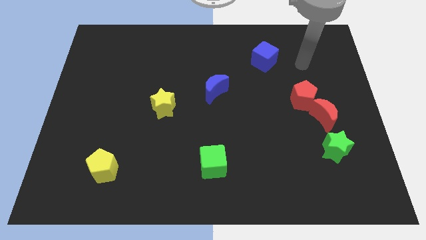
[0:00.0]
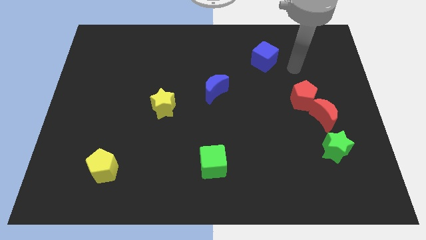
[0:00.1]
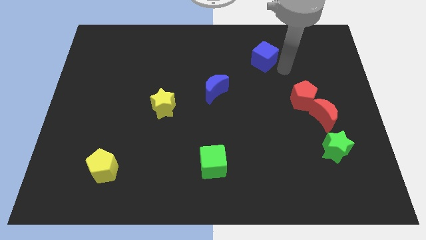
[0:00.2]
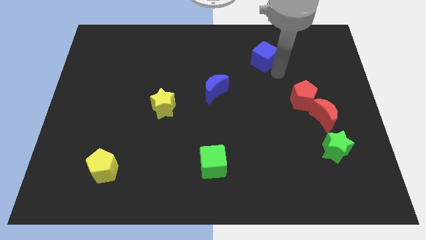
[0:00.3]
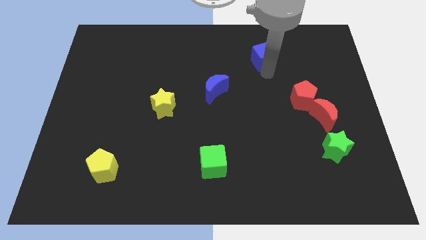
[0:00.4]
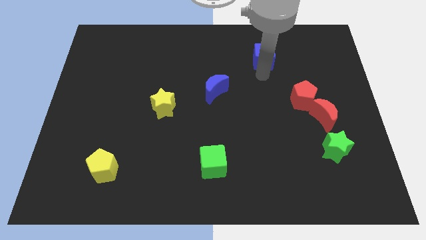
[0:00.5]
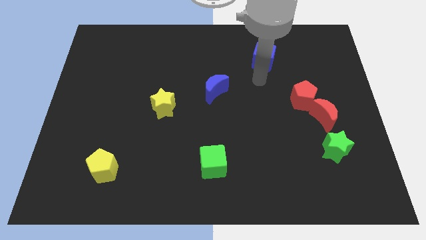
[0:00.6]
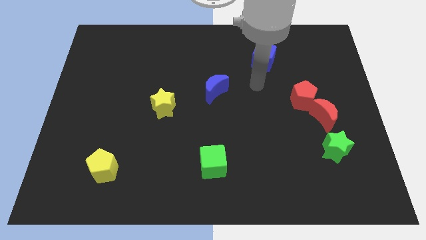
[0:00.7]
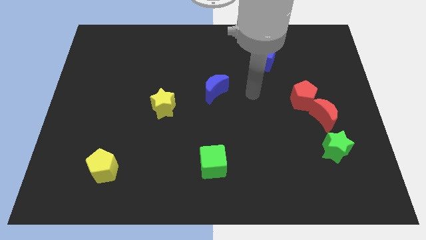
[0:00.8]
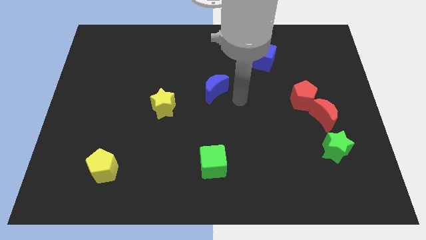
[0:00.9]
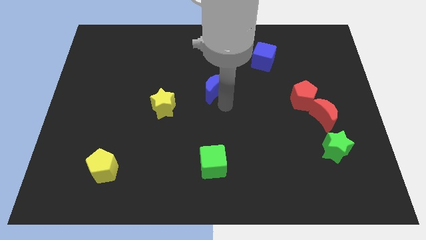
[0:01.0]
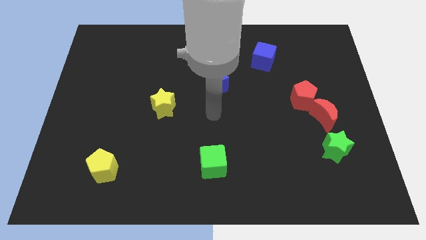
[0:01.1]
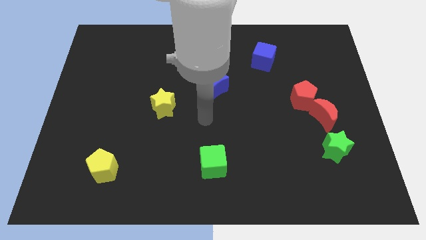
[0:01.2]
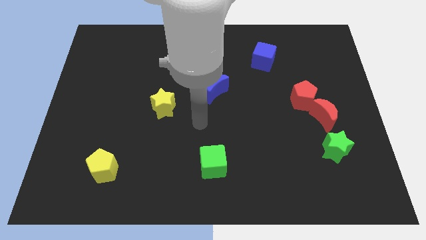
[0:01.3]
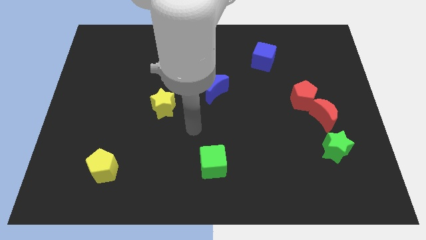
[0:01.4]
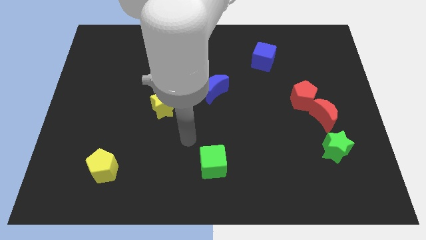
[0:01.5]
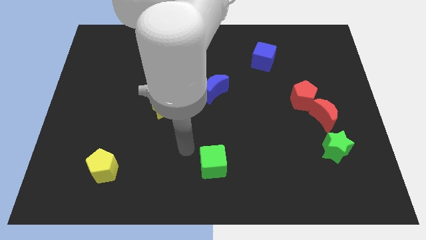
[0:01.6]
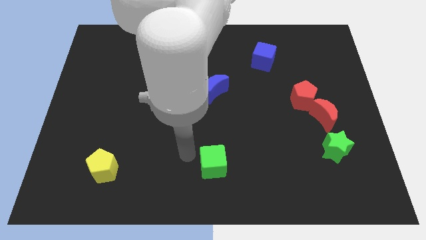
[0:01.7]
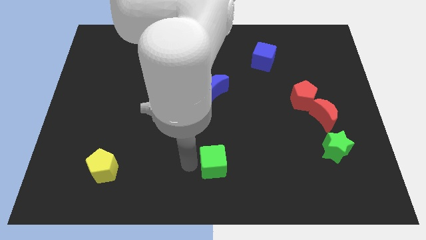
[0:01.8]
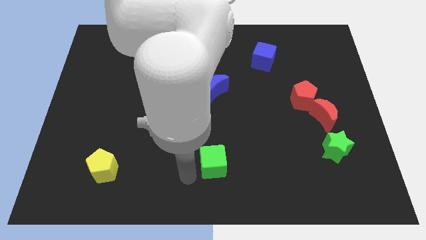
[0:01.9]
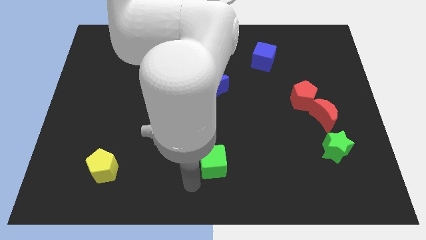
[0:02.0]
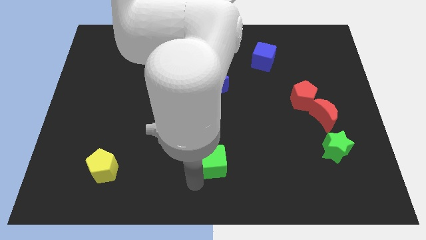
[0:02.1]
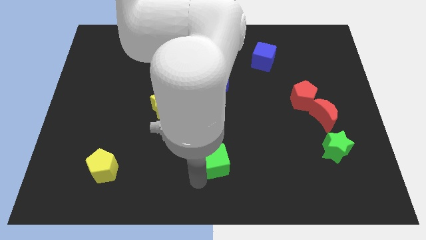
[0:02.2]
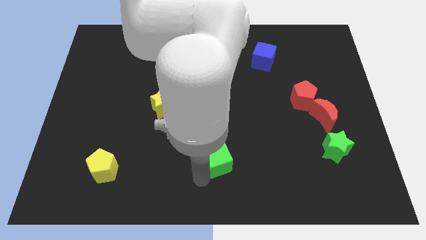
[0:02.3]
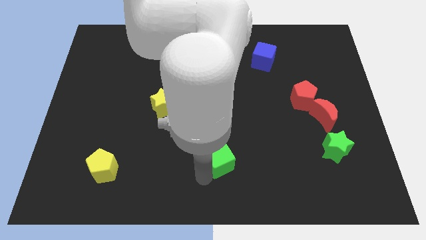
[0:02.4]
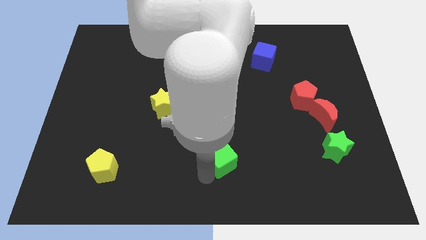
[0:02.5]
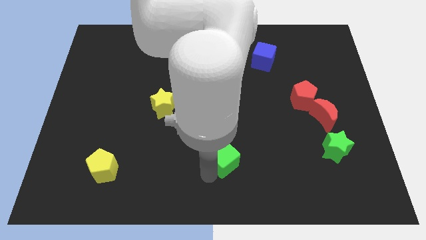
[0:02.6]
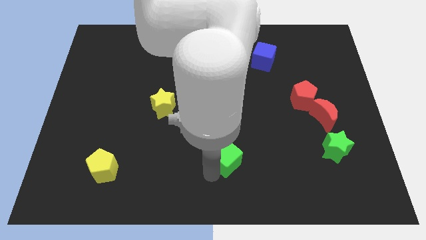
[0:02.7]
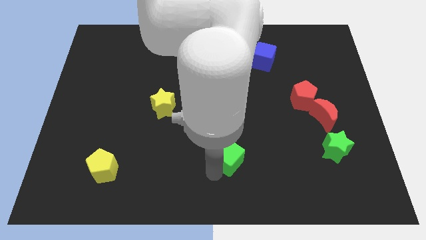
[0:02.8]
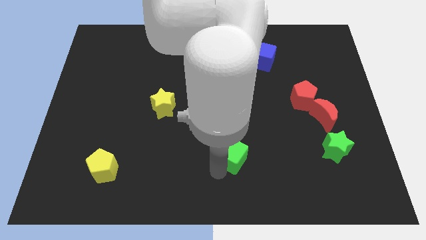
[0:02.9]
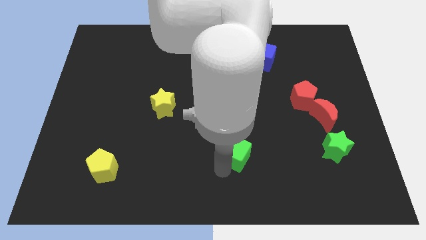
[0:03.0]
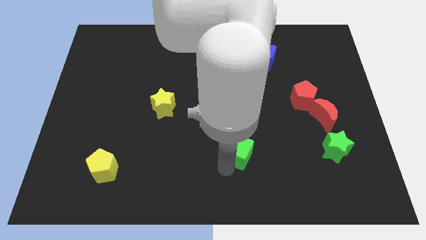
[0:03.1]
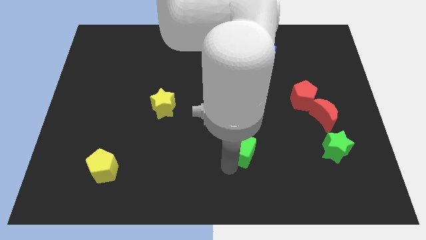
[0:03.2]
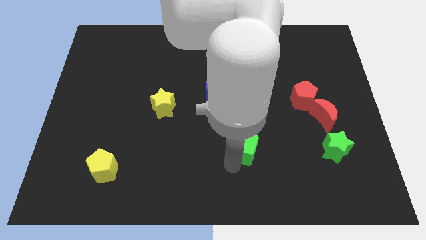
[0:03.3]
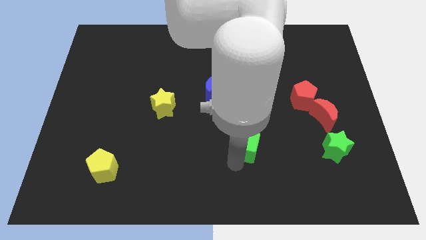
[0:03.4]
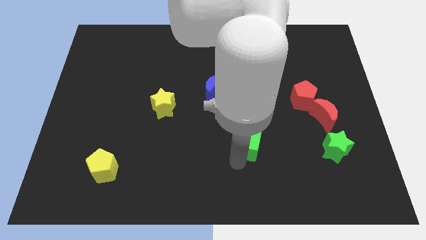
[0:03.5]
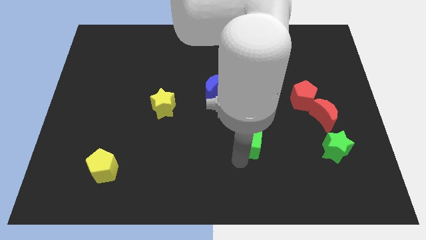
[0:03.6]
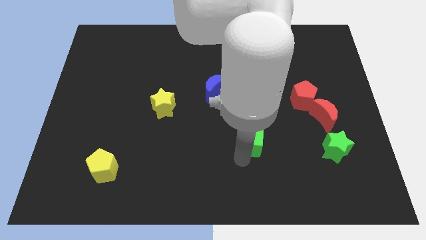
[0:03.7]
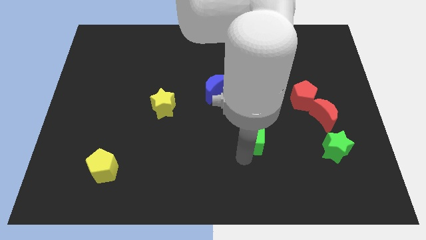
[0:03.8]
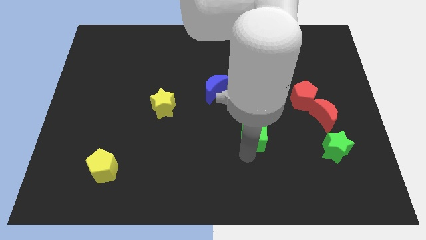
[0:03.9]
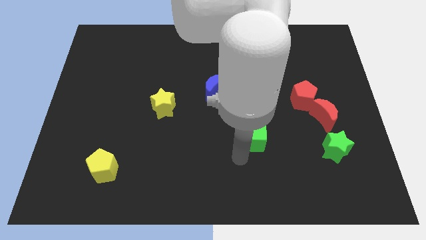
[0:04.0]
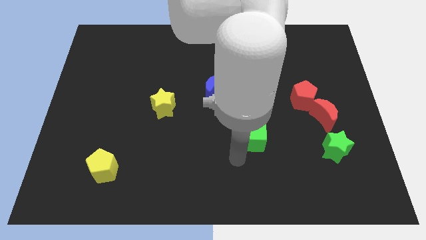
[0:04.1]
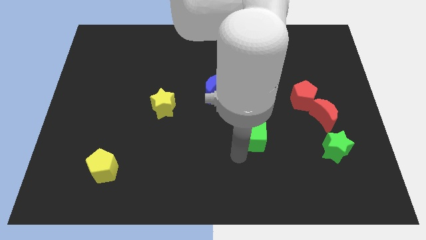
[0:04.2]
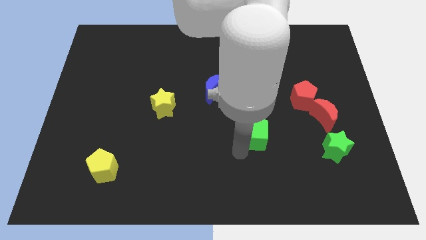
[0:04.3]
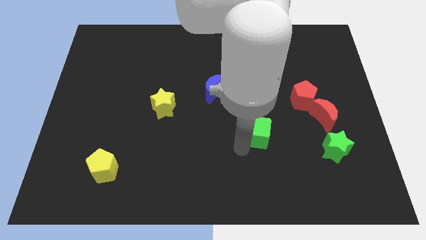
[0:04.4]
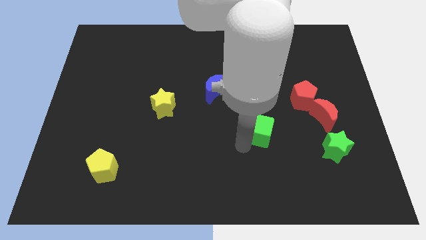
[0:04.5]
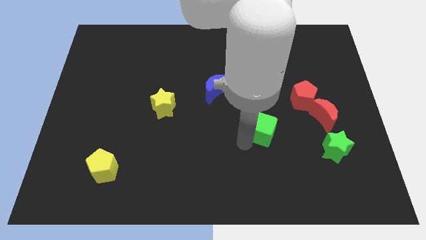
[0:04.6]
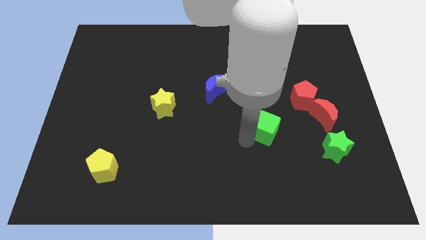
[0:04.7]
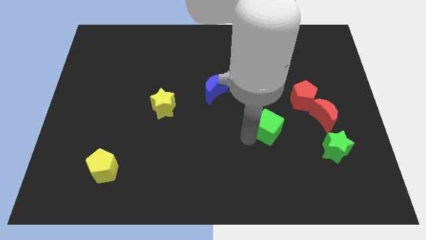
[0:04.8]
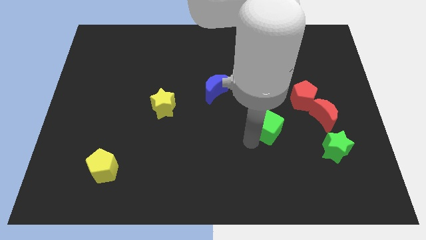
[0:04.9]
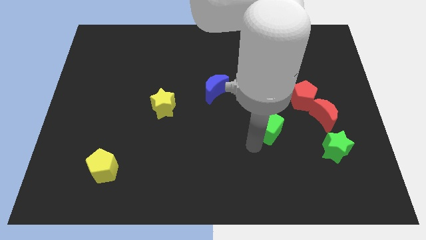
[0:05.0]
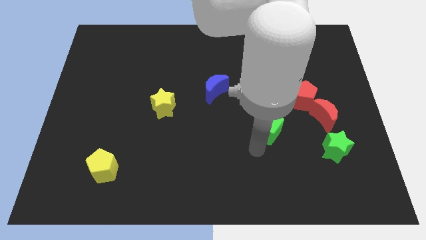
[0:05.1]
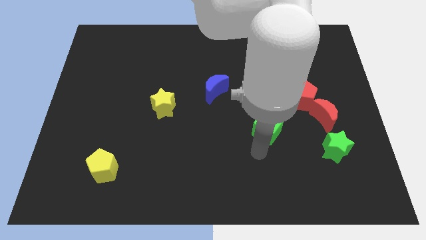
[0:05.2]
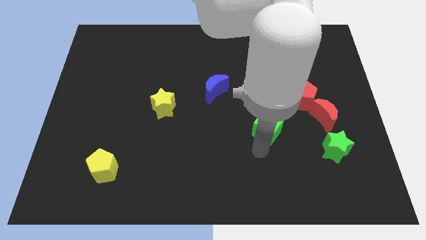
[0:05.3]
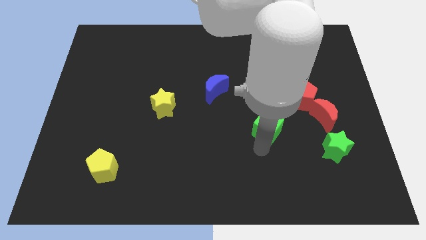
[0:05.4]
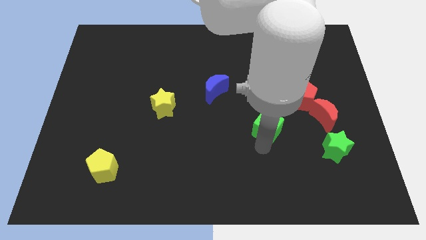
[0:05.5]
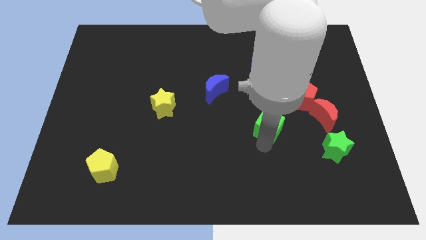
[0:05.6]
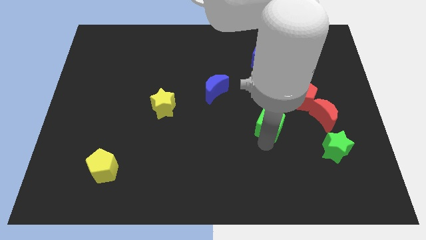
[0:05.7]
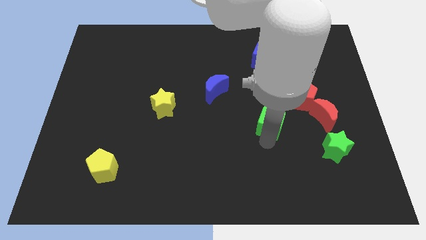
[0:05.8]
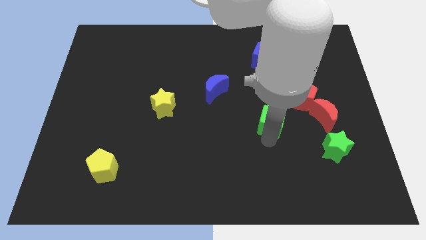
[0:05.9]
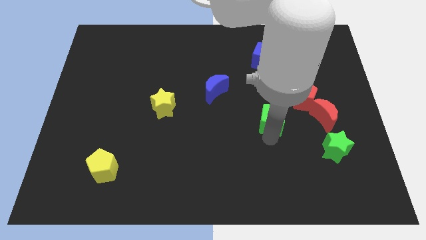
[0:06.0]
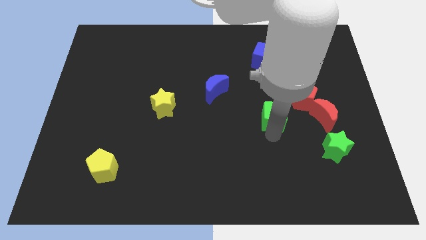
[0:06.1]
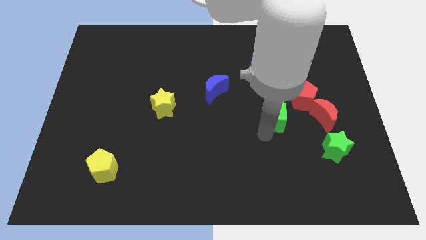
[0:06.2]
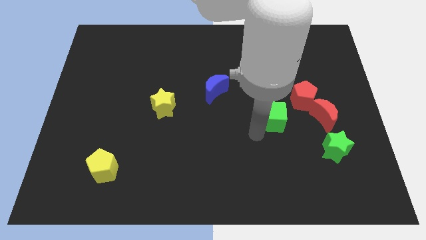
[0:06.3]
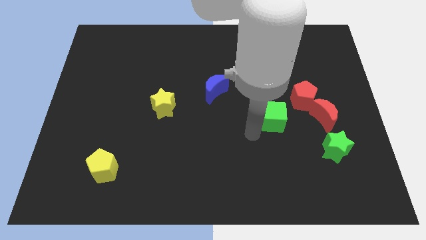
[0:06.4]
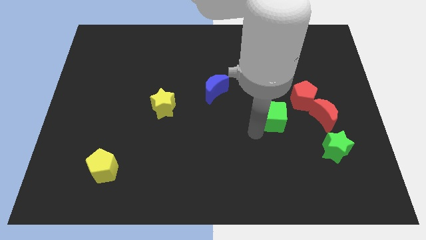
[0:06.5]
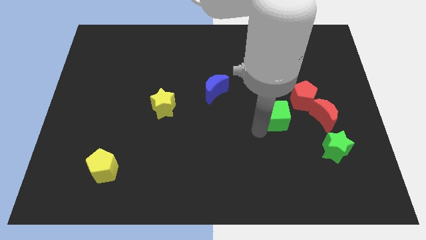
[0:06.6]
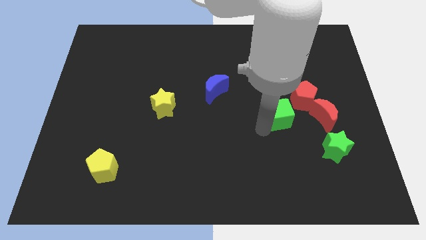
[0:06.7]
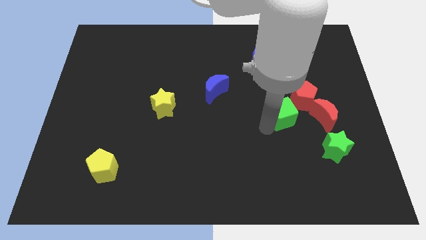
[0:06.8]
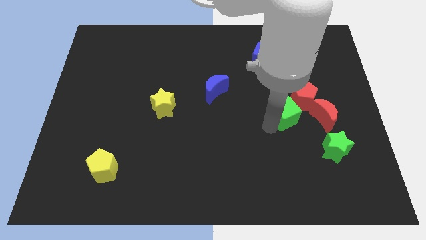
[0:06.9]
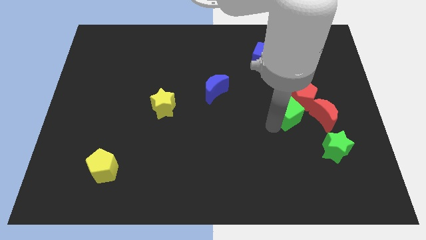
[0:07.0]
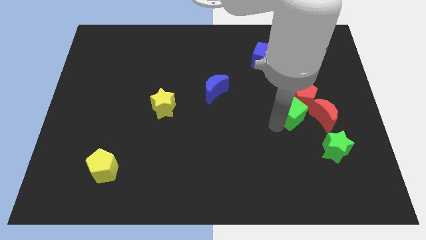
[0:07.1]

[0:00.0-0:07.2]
put the green cube close to the red pentagon

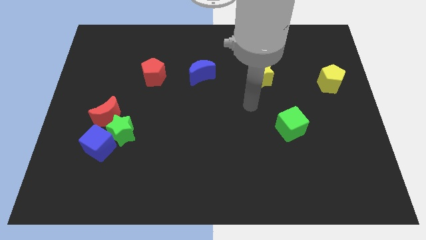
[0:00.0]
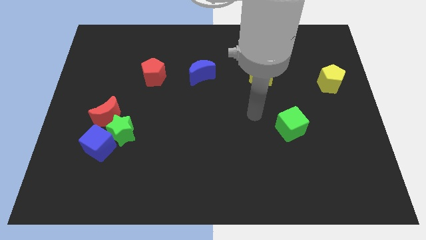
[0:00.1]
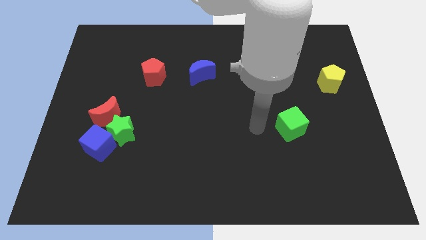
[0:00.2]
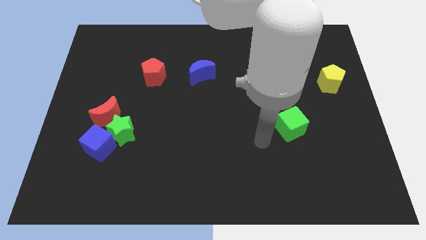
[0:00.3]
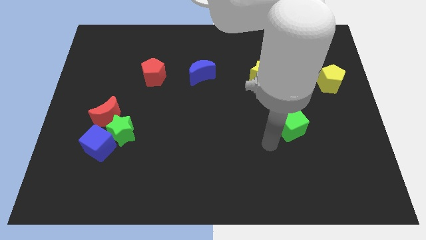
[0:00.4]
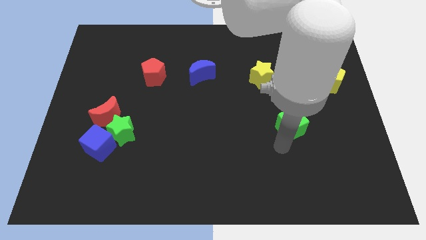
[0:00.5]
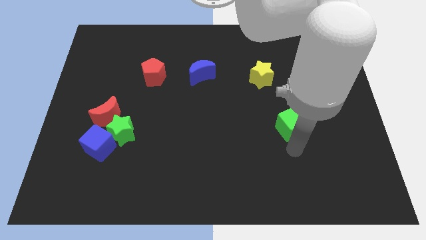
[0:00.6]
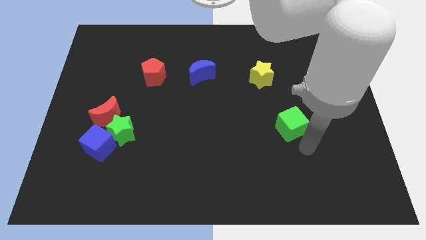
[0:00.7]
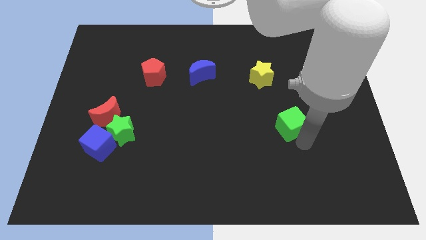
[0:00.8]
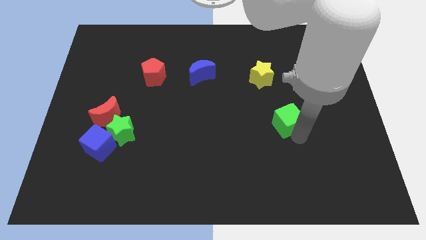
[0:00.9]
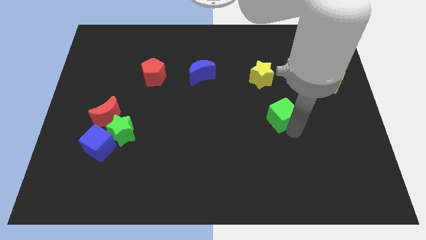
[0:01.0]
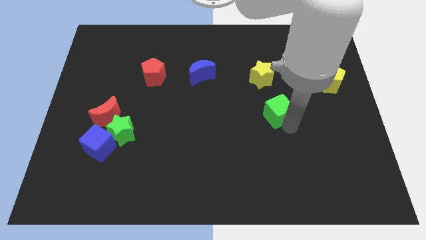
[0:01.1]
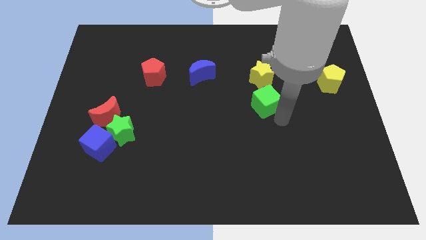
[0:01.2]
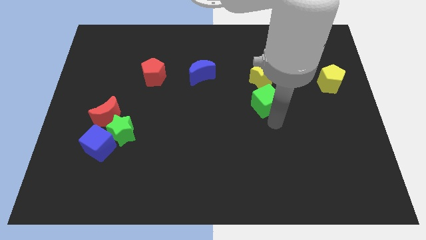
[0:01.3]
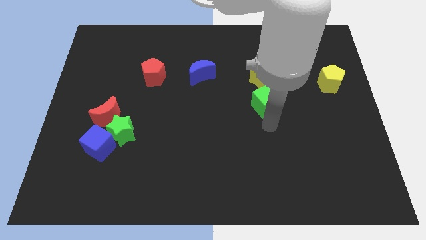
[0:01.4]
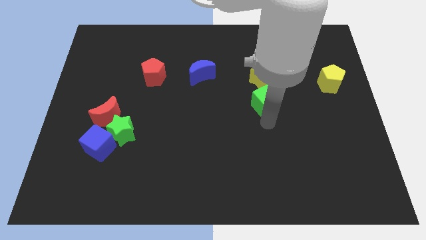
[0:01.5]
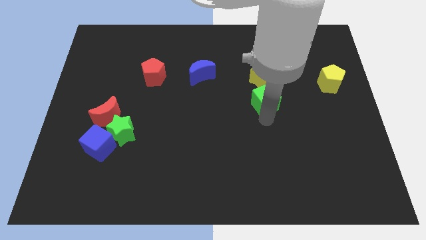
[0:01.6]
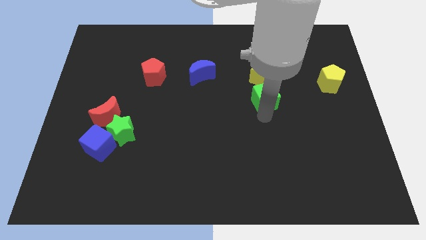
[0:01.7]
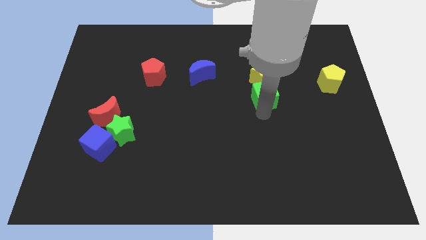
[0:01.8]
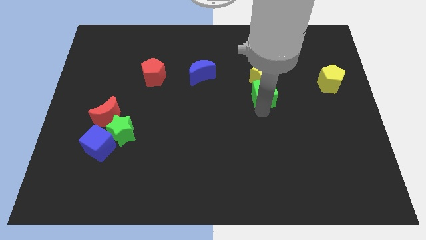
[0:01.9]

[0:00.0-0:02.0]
move the green cube close to the yellow star
